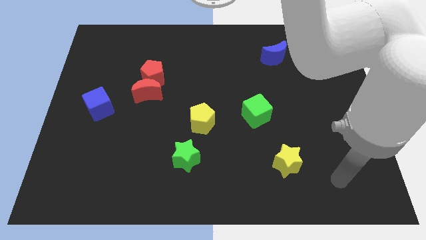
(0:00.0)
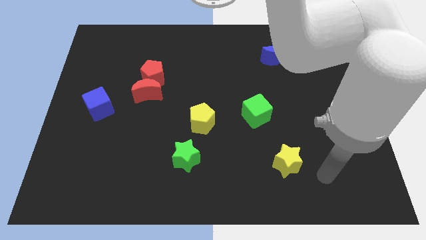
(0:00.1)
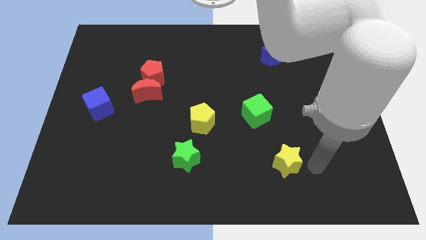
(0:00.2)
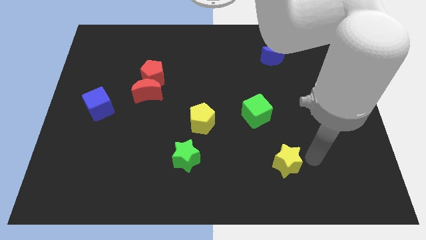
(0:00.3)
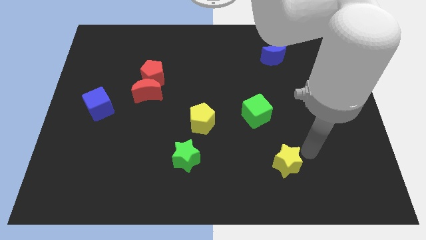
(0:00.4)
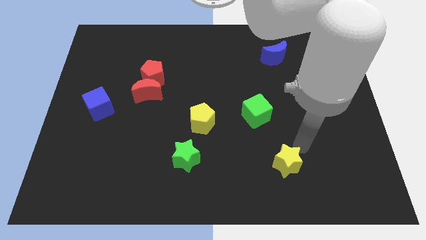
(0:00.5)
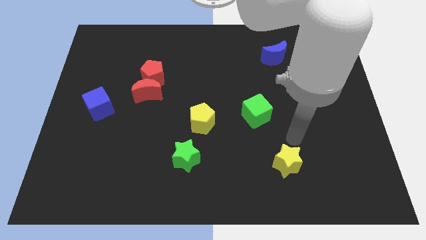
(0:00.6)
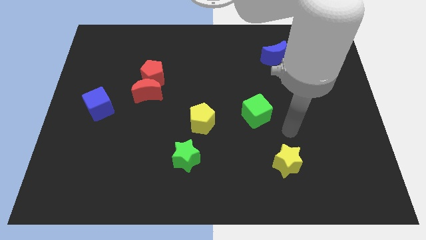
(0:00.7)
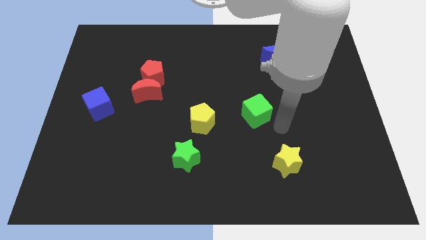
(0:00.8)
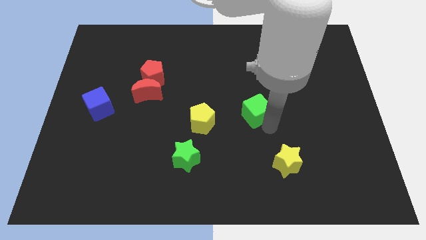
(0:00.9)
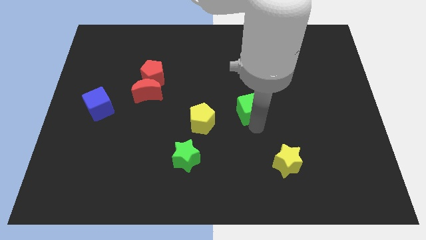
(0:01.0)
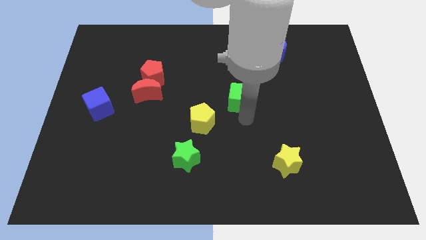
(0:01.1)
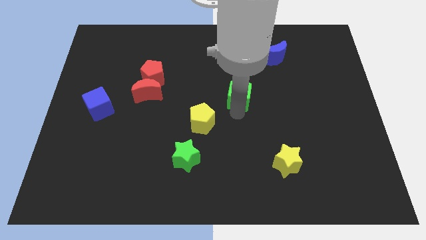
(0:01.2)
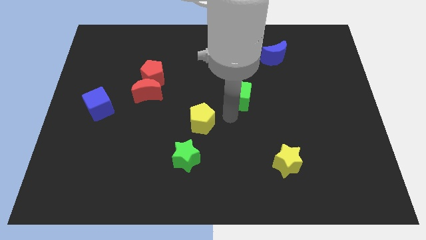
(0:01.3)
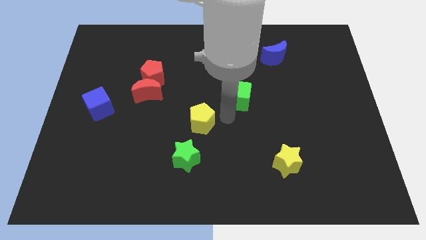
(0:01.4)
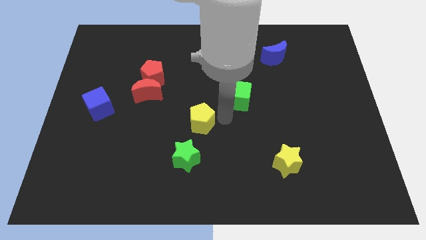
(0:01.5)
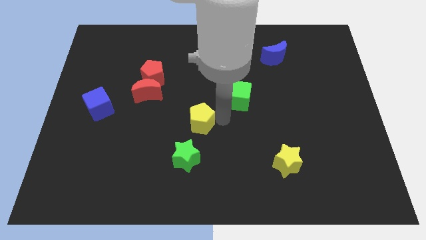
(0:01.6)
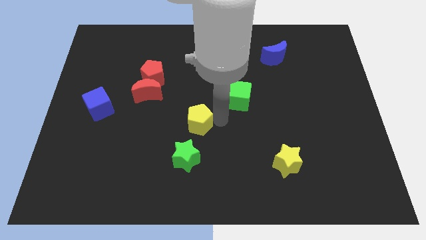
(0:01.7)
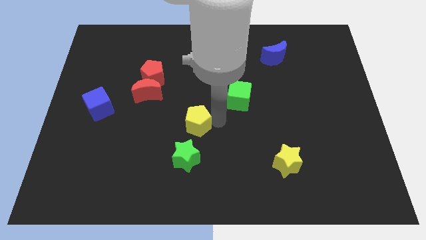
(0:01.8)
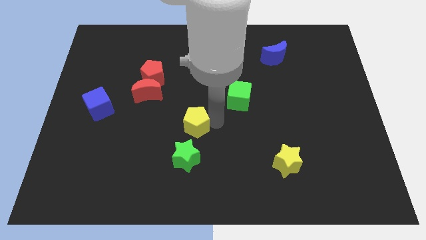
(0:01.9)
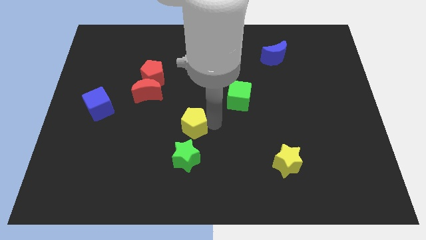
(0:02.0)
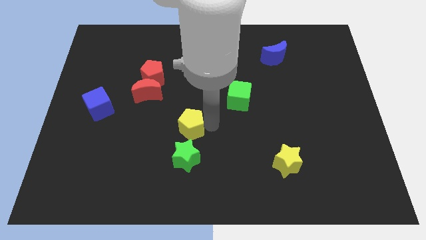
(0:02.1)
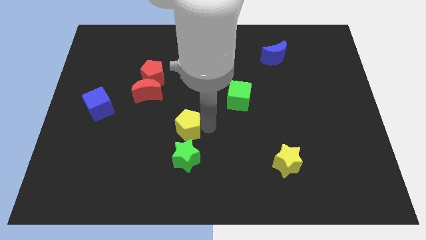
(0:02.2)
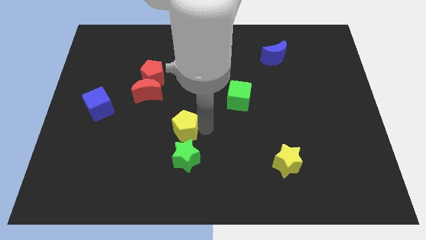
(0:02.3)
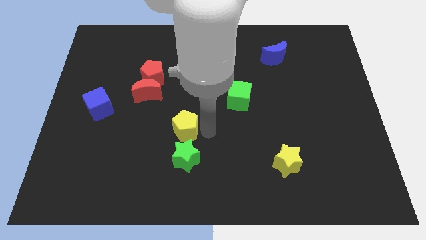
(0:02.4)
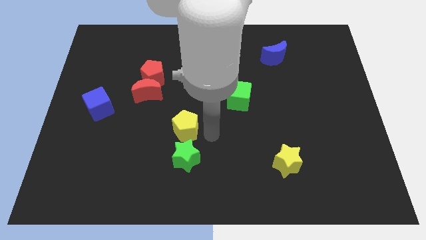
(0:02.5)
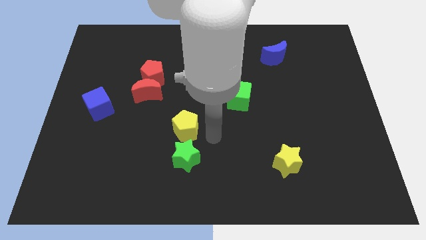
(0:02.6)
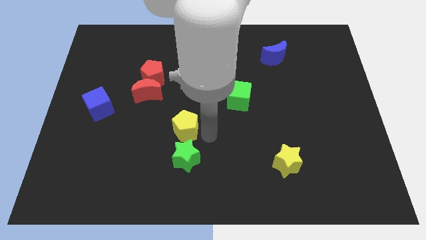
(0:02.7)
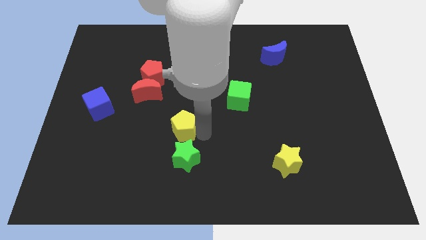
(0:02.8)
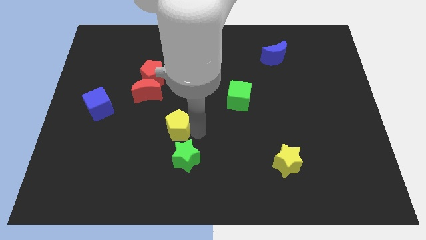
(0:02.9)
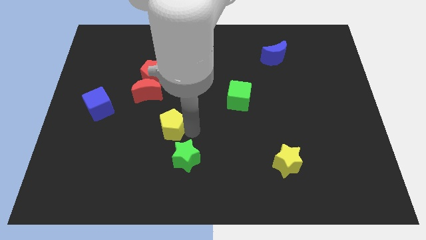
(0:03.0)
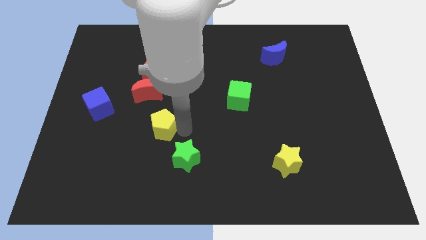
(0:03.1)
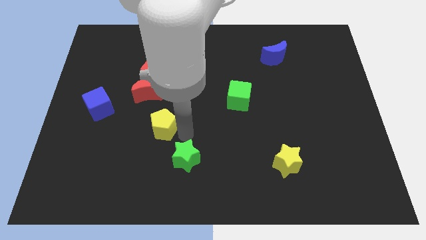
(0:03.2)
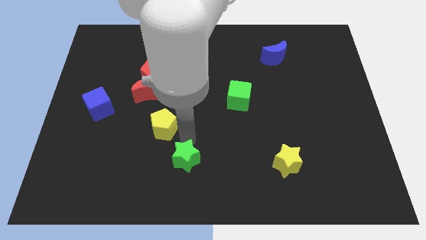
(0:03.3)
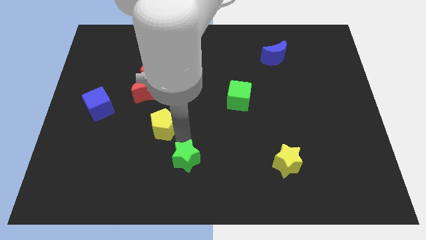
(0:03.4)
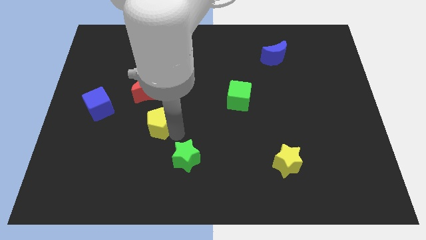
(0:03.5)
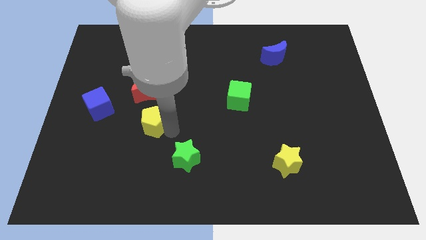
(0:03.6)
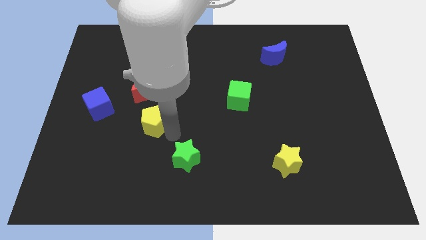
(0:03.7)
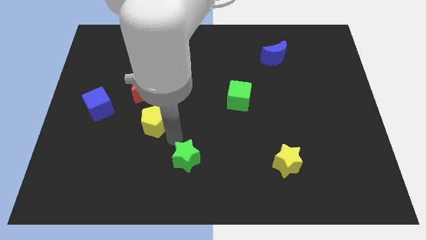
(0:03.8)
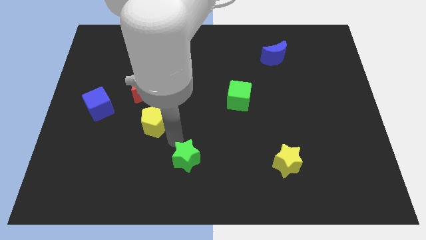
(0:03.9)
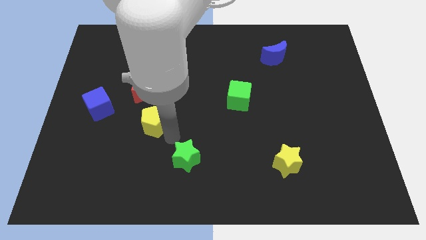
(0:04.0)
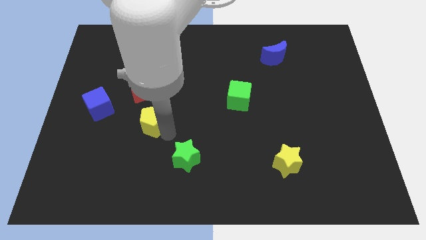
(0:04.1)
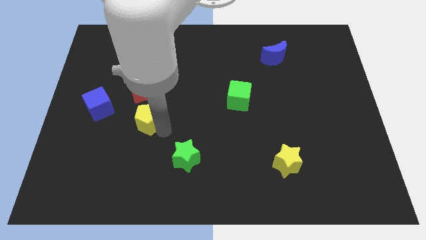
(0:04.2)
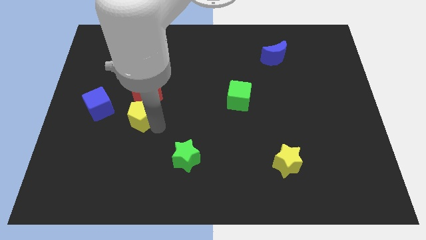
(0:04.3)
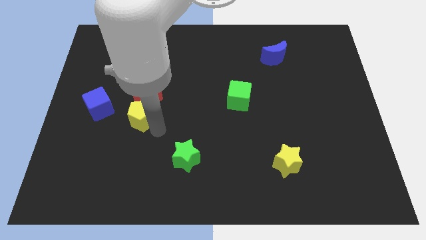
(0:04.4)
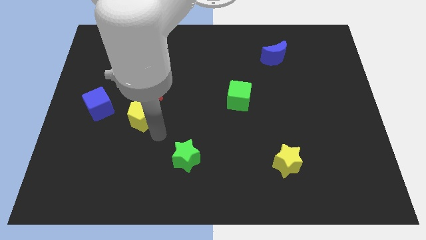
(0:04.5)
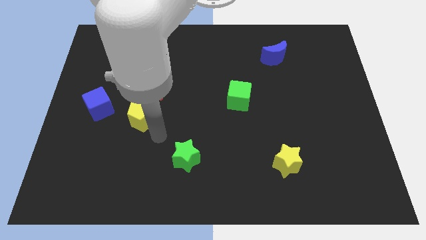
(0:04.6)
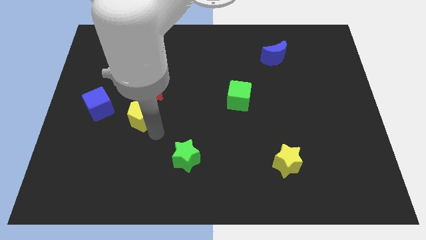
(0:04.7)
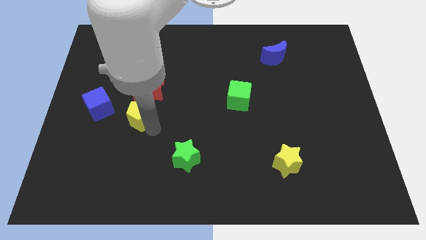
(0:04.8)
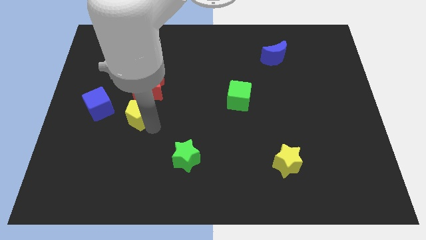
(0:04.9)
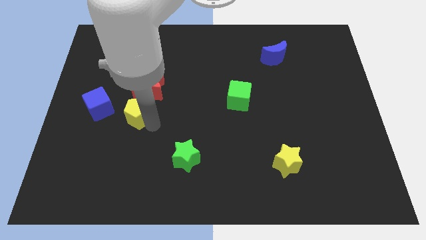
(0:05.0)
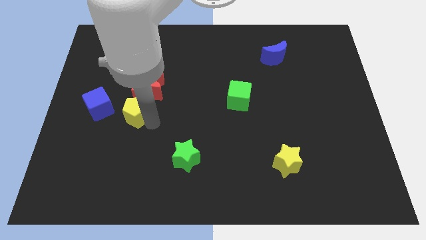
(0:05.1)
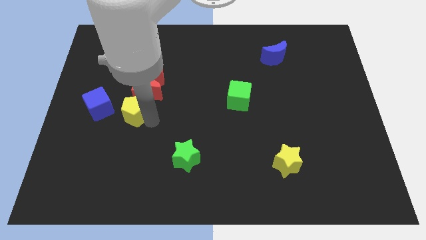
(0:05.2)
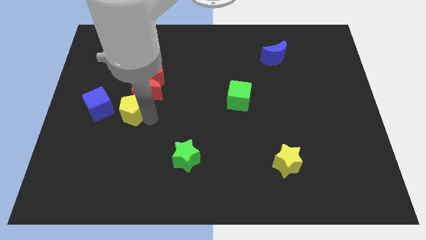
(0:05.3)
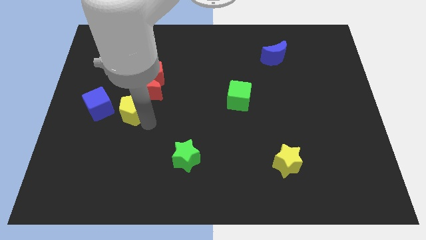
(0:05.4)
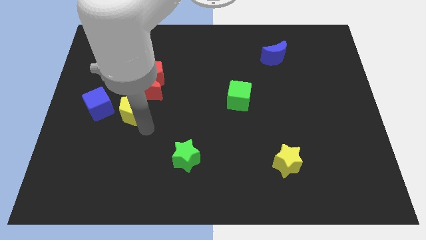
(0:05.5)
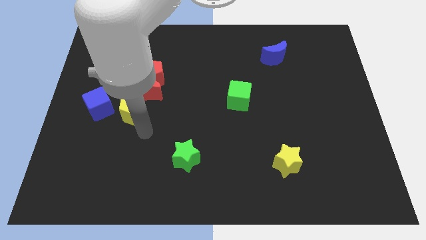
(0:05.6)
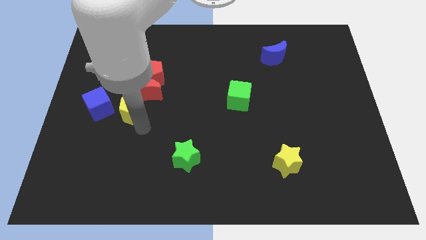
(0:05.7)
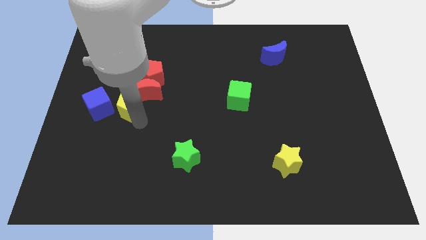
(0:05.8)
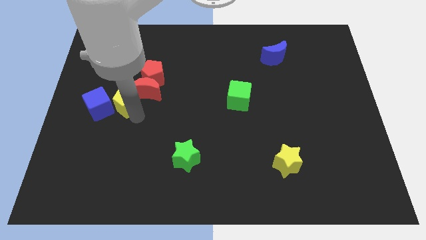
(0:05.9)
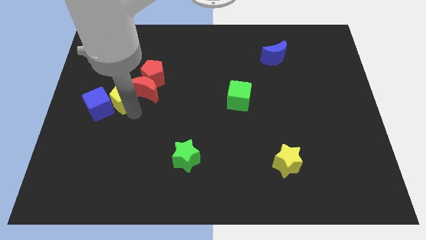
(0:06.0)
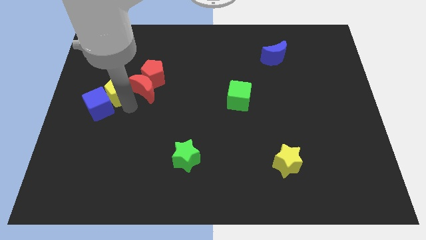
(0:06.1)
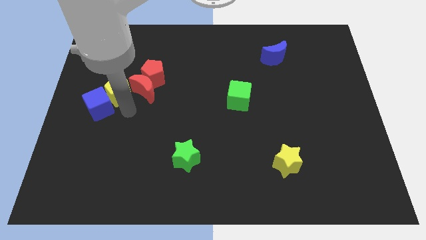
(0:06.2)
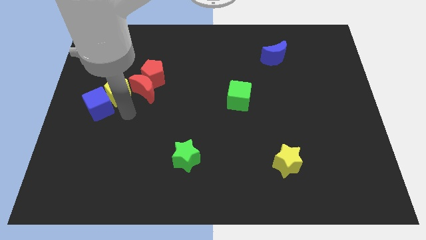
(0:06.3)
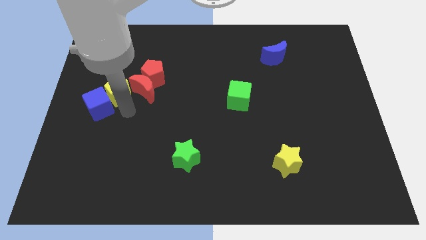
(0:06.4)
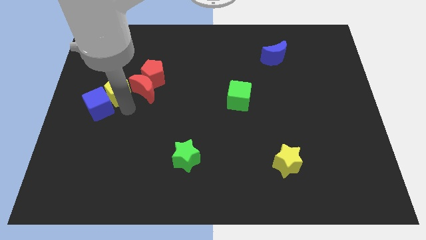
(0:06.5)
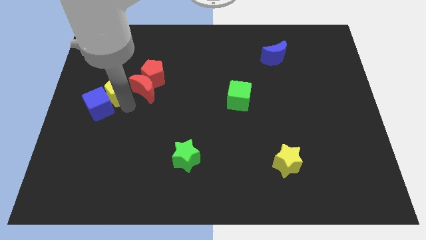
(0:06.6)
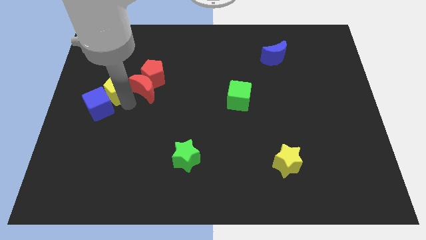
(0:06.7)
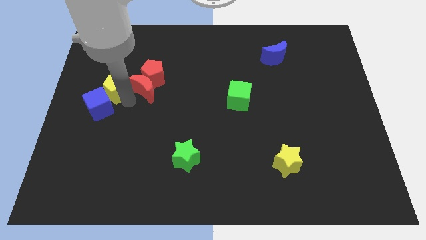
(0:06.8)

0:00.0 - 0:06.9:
move the yellow pentagon left of the red pentagon

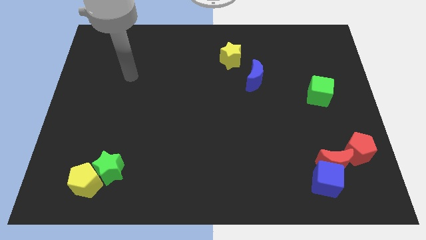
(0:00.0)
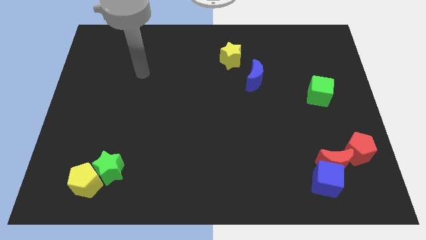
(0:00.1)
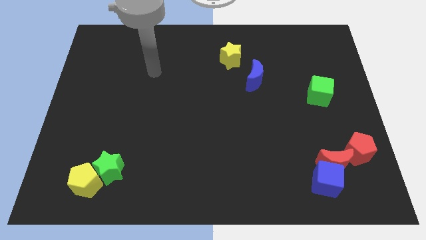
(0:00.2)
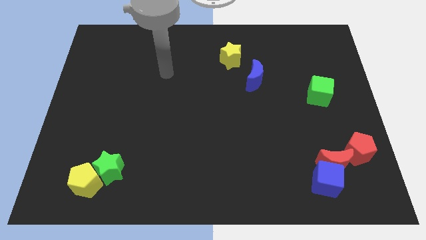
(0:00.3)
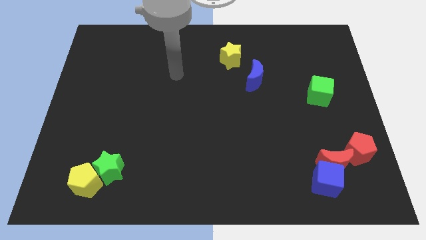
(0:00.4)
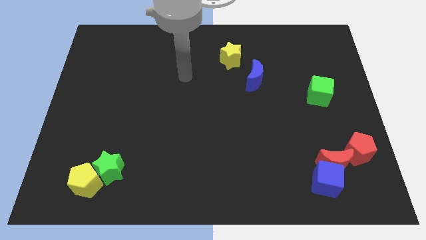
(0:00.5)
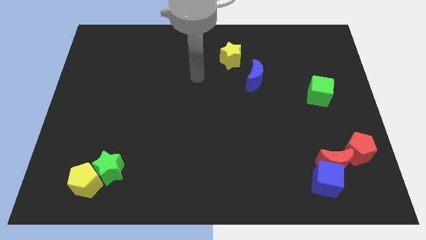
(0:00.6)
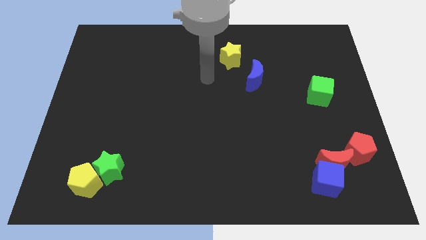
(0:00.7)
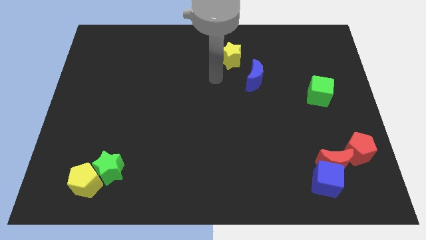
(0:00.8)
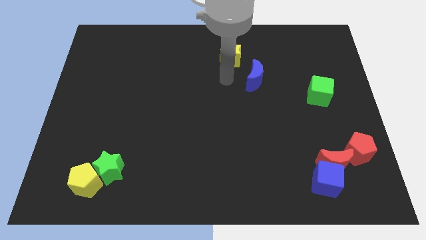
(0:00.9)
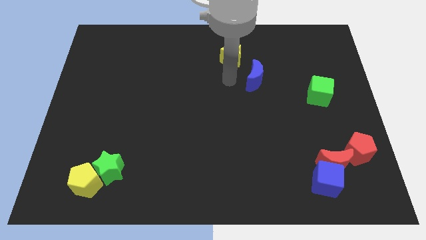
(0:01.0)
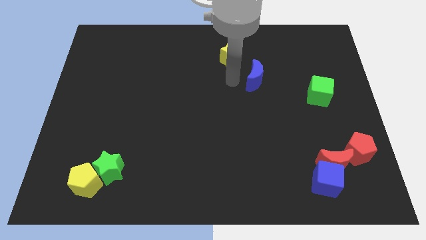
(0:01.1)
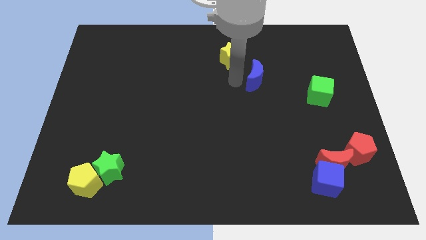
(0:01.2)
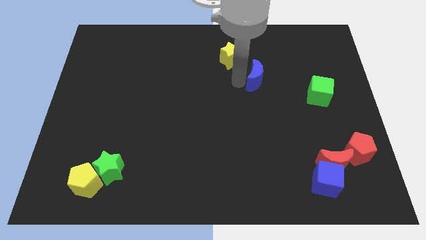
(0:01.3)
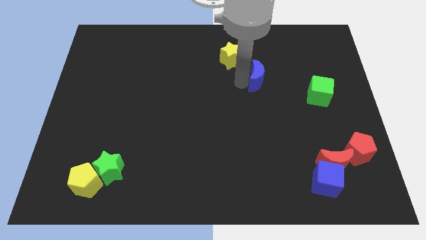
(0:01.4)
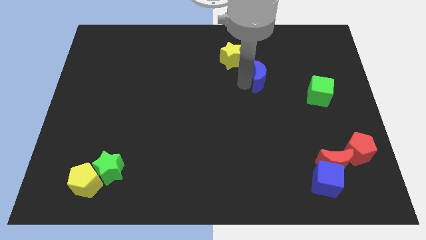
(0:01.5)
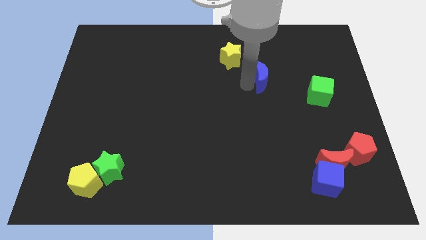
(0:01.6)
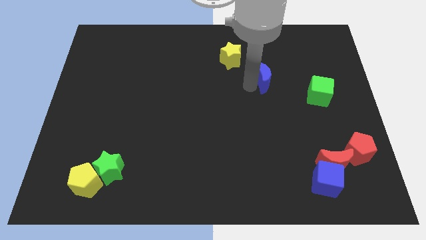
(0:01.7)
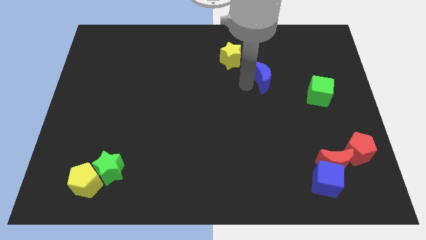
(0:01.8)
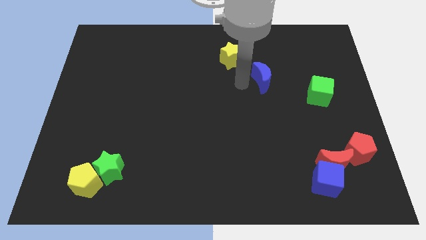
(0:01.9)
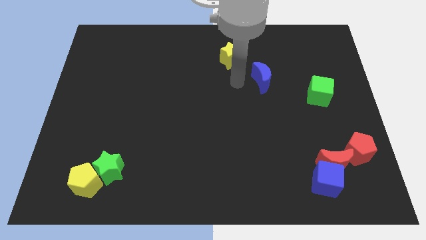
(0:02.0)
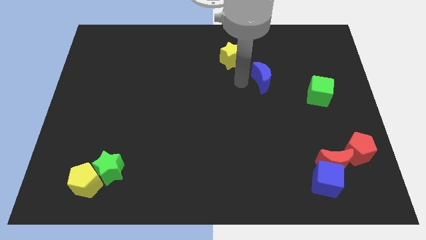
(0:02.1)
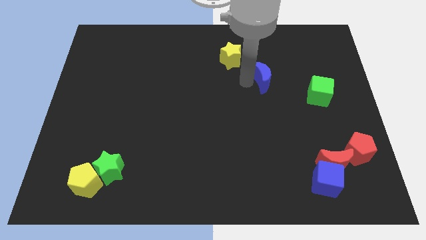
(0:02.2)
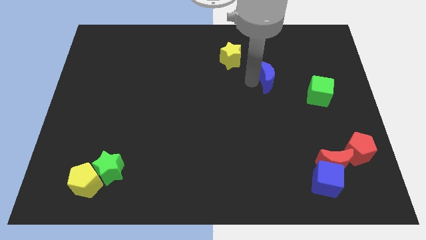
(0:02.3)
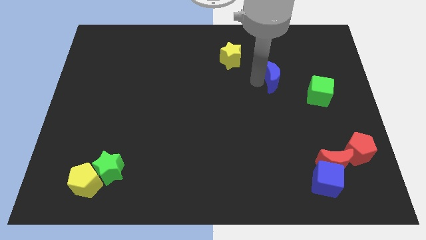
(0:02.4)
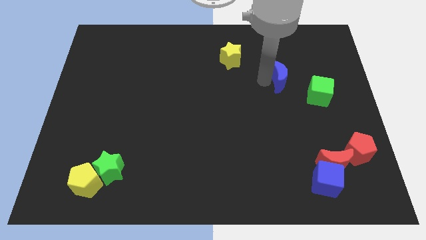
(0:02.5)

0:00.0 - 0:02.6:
slide the blue moon to the top left of the green cube
